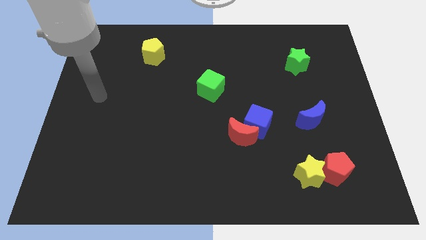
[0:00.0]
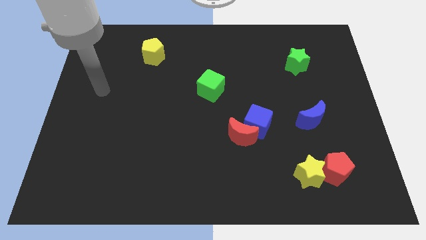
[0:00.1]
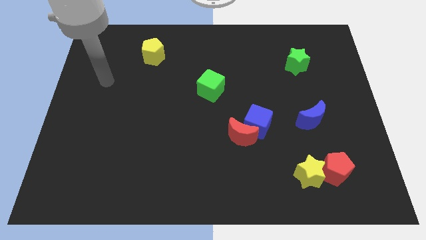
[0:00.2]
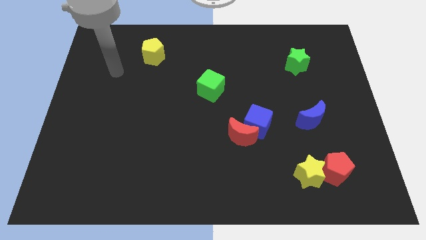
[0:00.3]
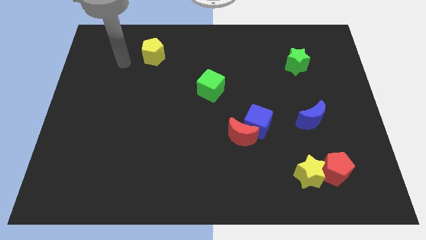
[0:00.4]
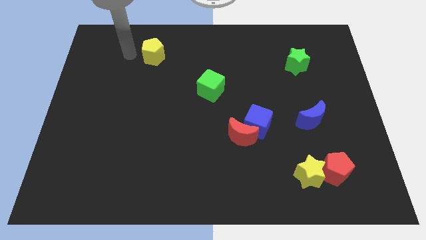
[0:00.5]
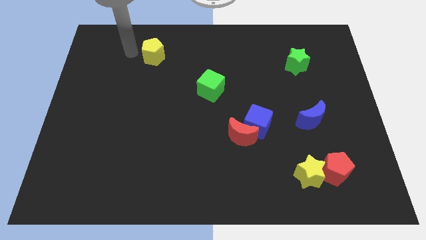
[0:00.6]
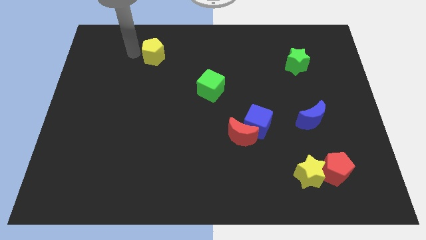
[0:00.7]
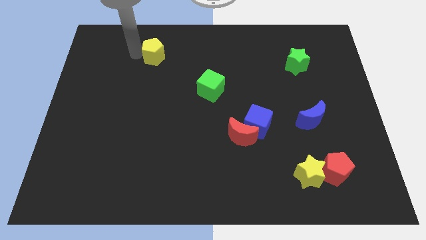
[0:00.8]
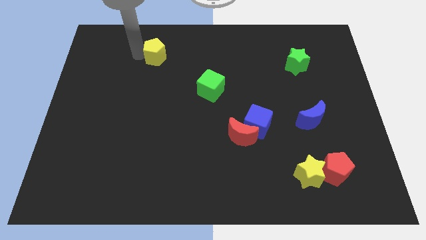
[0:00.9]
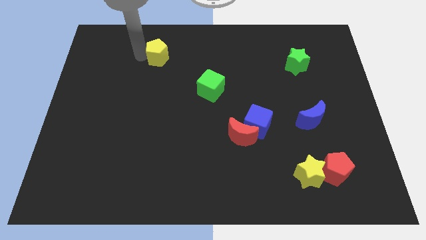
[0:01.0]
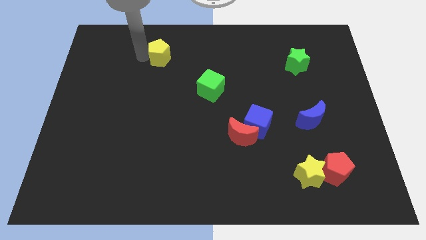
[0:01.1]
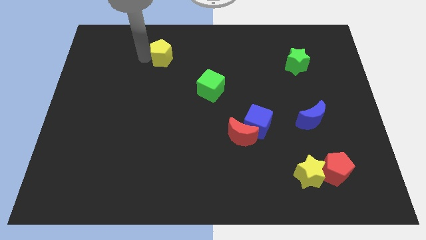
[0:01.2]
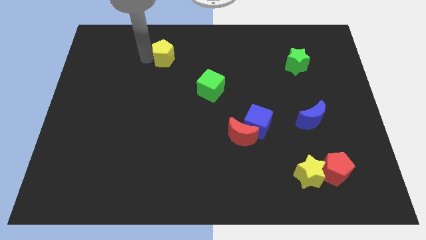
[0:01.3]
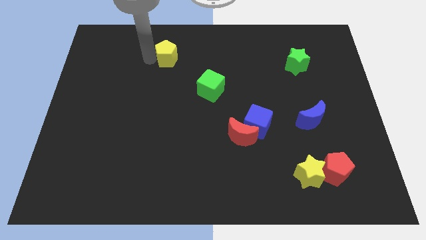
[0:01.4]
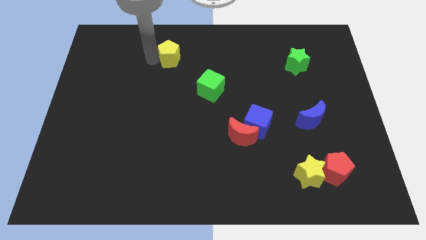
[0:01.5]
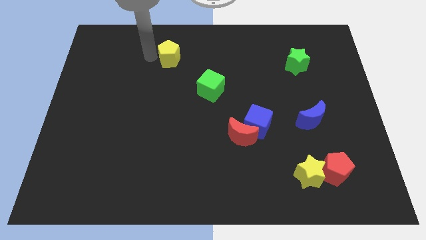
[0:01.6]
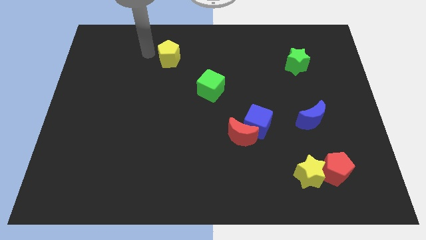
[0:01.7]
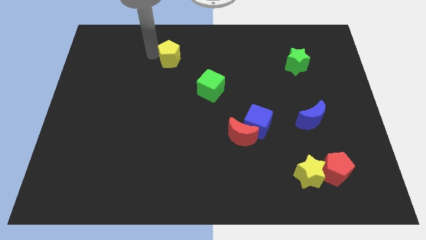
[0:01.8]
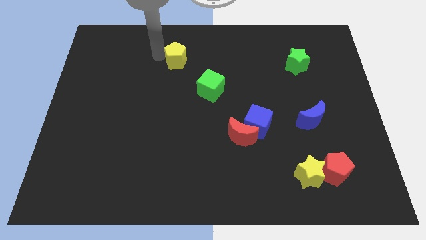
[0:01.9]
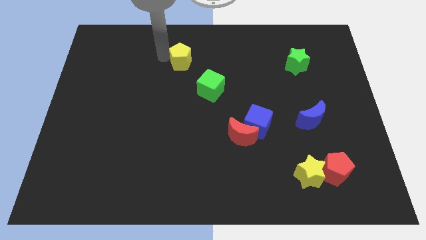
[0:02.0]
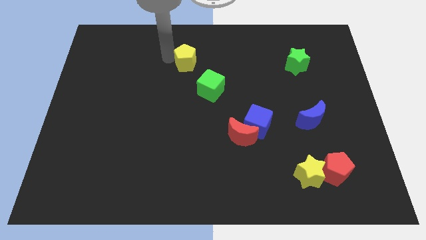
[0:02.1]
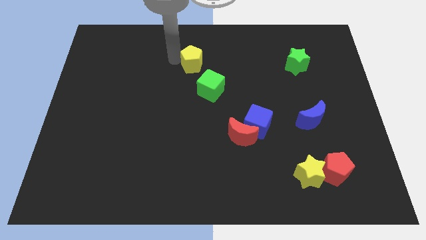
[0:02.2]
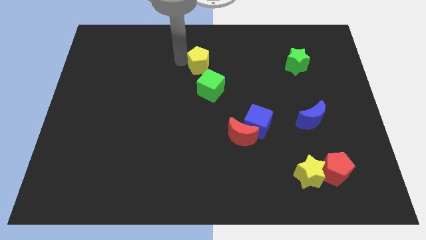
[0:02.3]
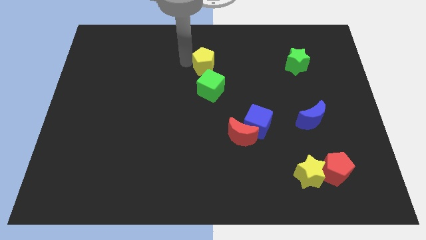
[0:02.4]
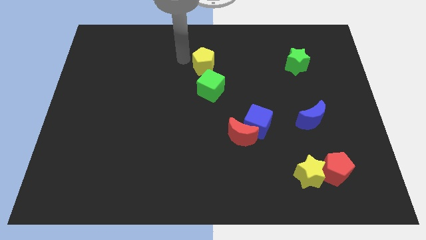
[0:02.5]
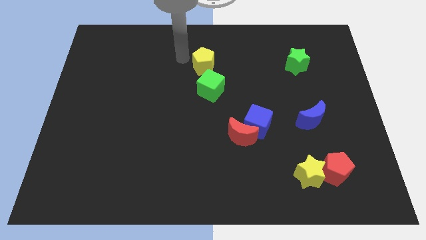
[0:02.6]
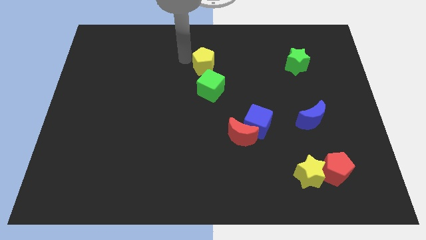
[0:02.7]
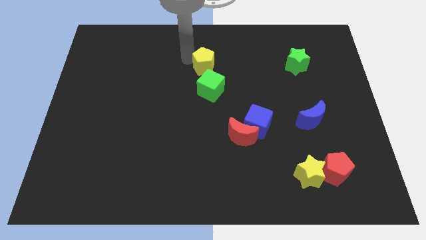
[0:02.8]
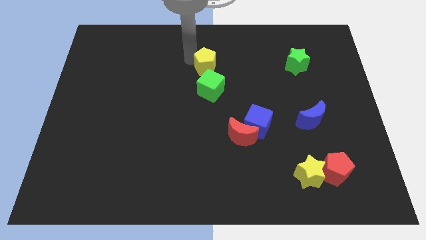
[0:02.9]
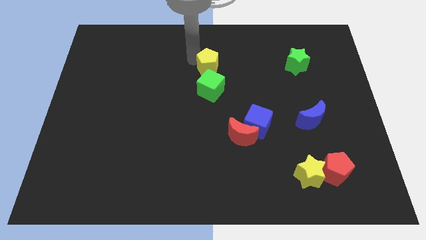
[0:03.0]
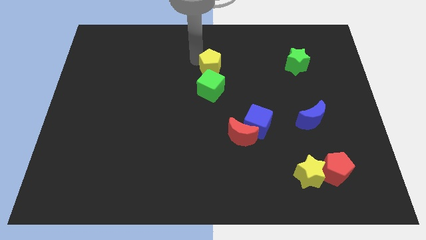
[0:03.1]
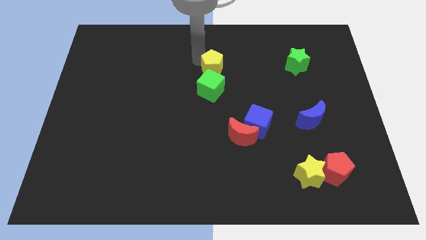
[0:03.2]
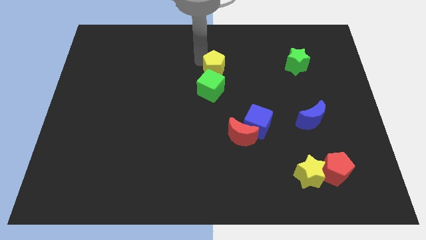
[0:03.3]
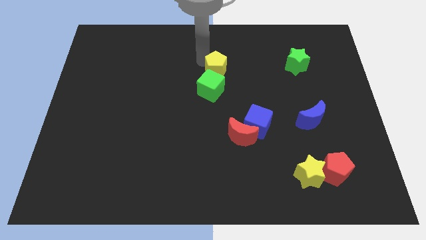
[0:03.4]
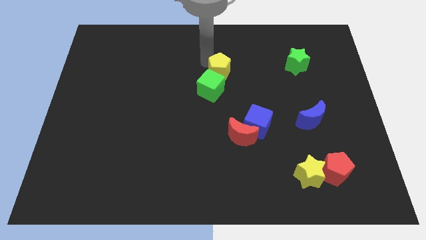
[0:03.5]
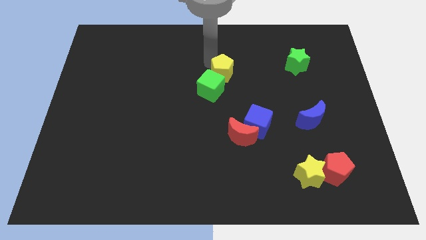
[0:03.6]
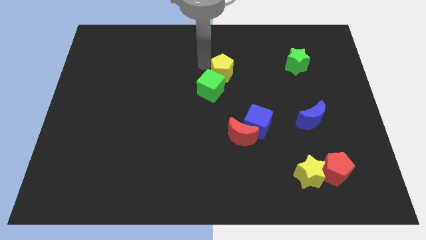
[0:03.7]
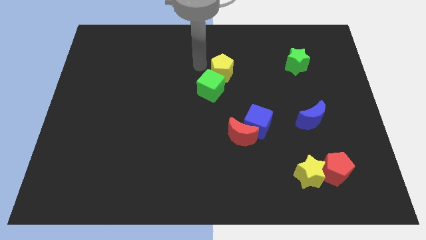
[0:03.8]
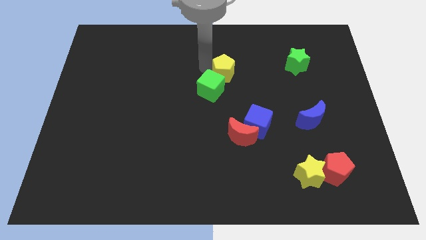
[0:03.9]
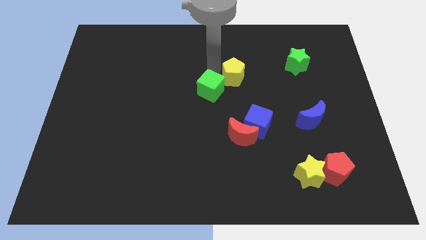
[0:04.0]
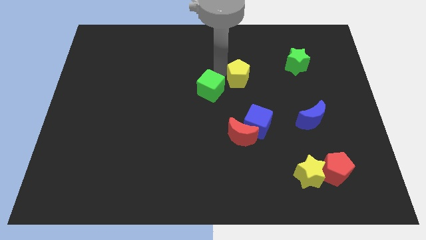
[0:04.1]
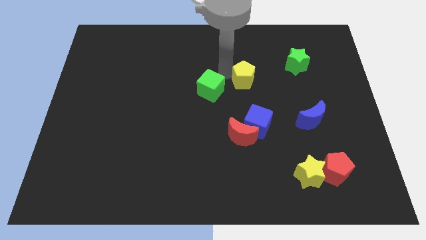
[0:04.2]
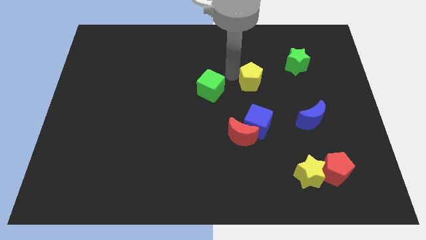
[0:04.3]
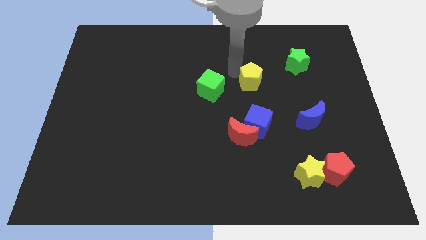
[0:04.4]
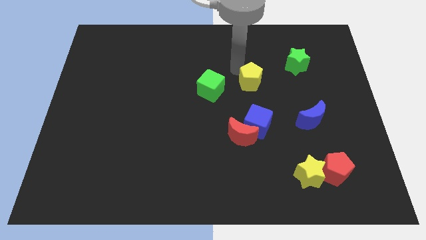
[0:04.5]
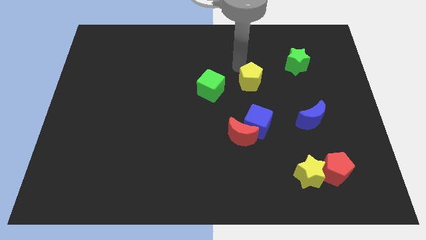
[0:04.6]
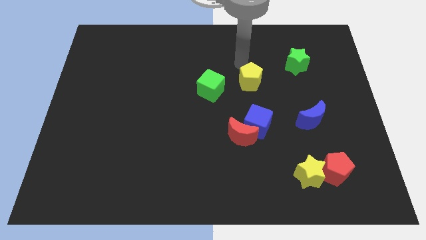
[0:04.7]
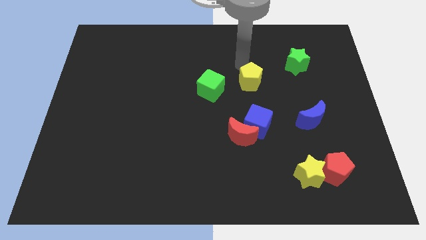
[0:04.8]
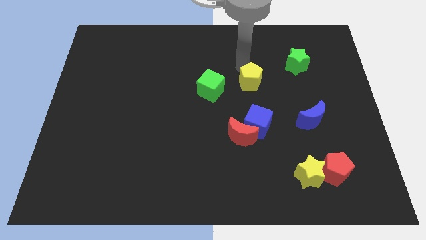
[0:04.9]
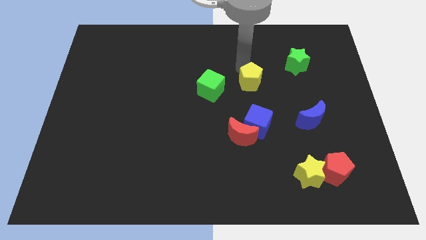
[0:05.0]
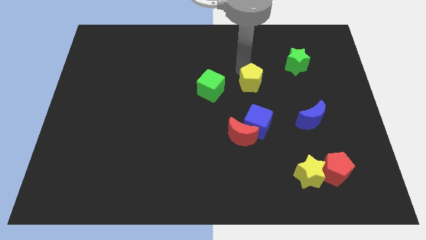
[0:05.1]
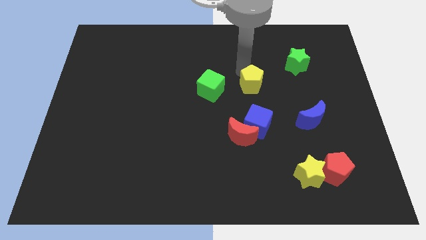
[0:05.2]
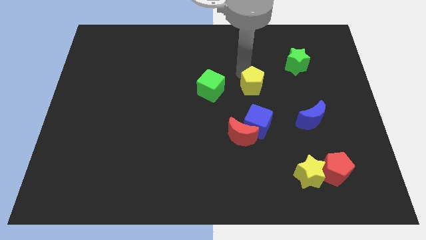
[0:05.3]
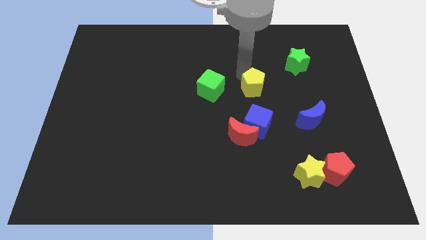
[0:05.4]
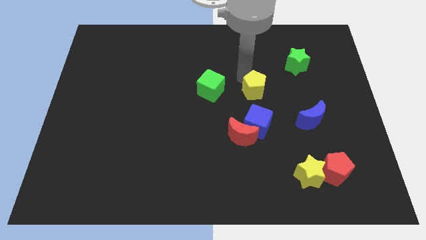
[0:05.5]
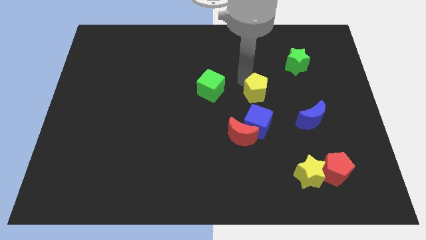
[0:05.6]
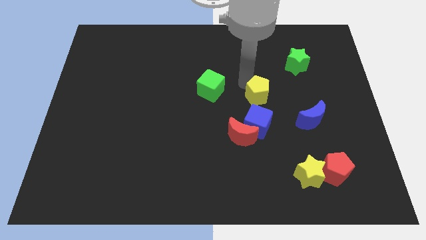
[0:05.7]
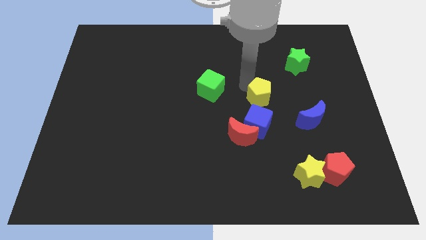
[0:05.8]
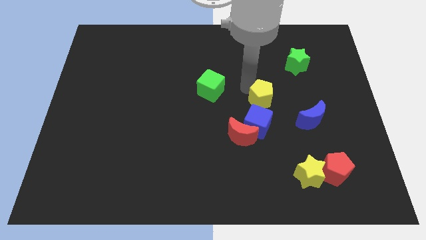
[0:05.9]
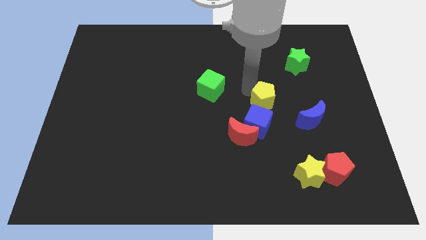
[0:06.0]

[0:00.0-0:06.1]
put the yellow pentagon to the top right of the red moon

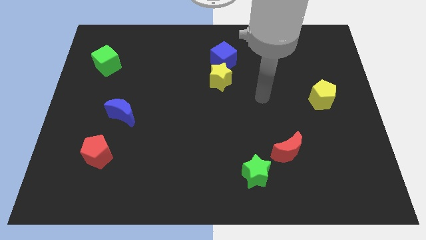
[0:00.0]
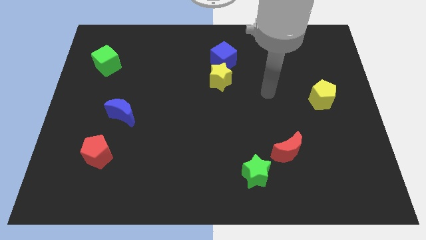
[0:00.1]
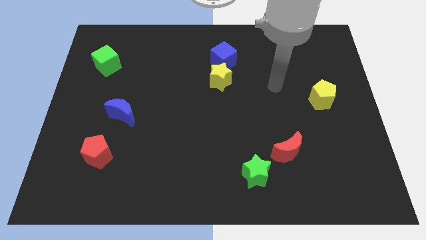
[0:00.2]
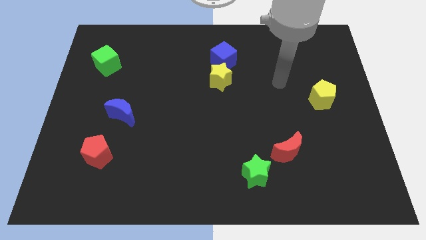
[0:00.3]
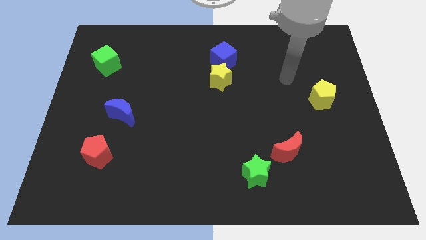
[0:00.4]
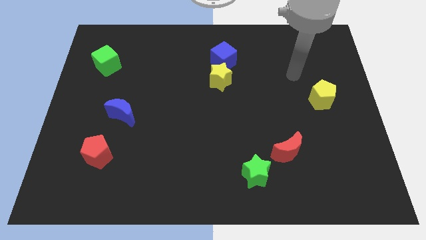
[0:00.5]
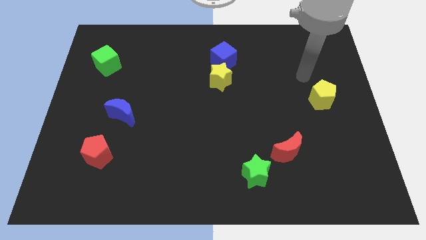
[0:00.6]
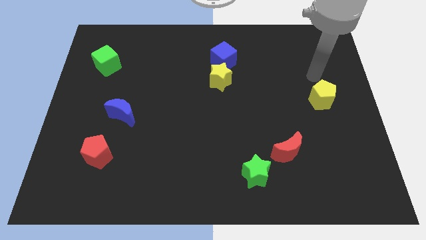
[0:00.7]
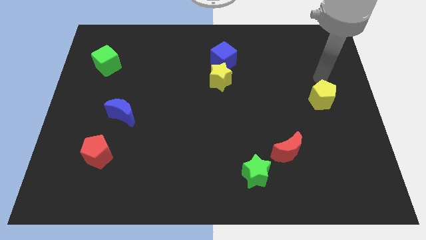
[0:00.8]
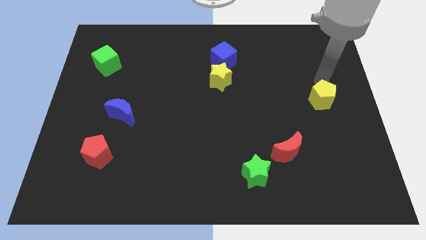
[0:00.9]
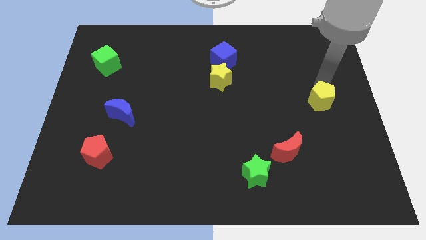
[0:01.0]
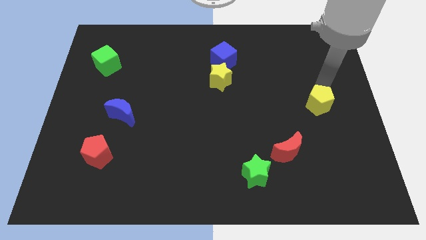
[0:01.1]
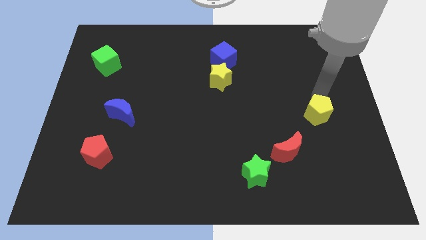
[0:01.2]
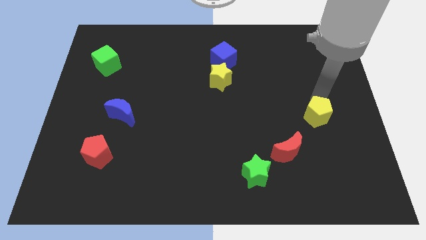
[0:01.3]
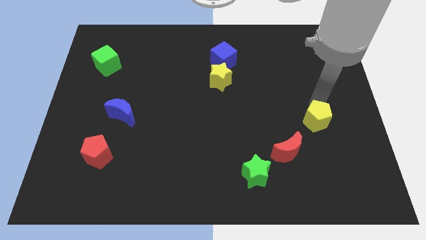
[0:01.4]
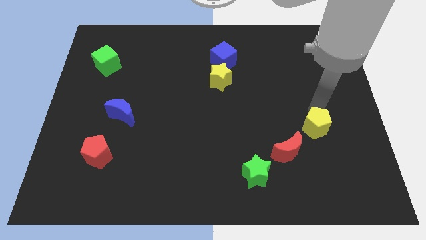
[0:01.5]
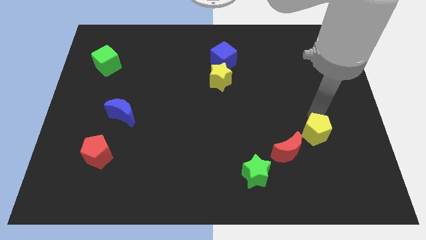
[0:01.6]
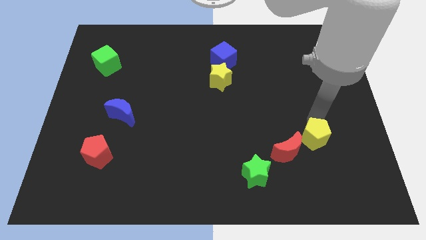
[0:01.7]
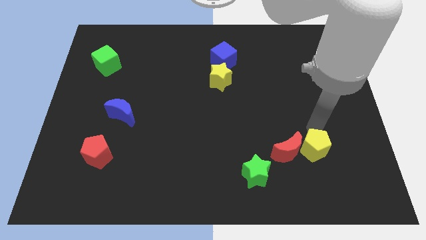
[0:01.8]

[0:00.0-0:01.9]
push the yellow pentagon diagonally down and to the right of the red moon
